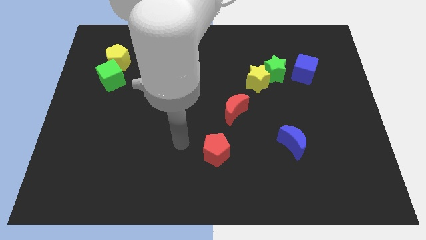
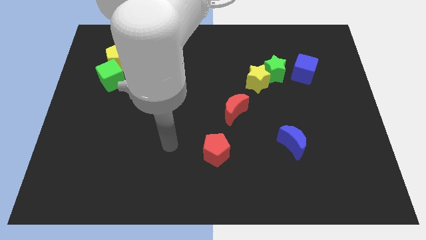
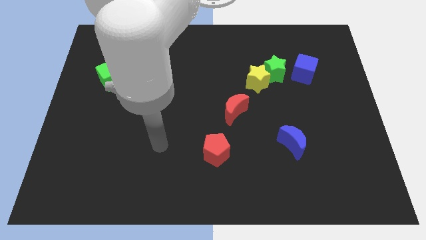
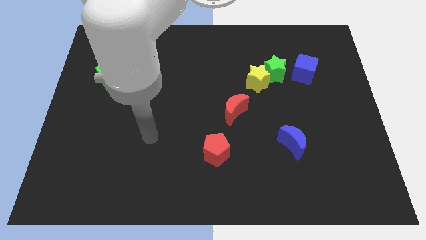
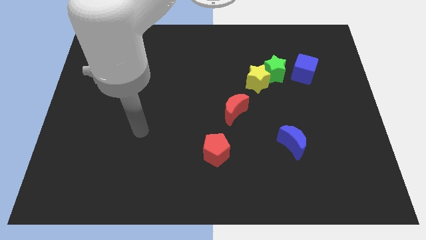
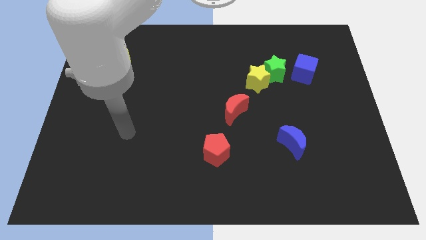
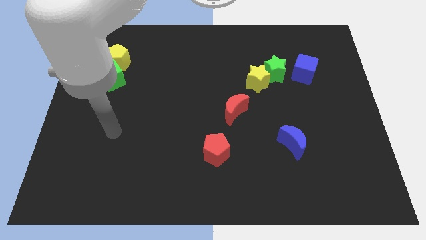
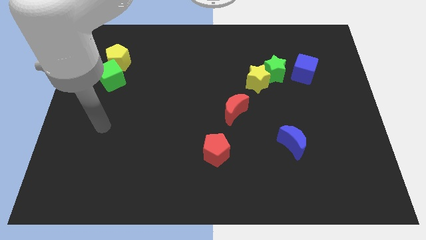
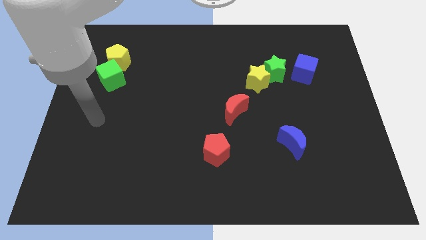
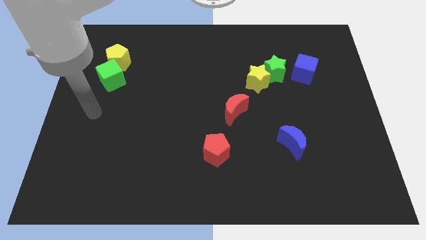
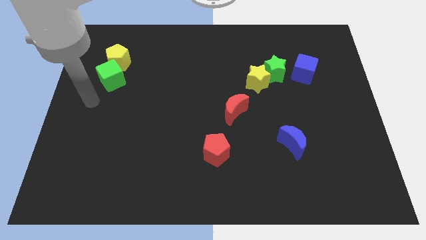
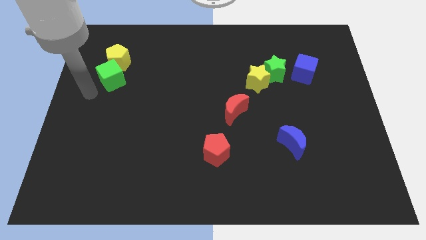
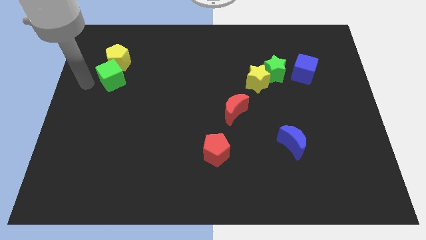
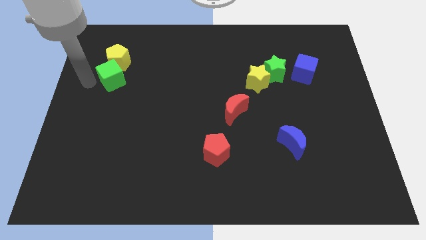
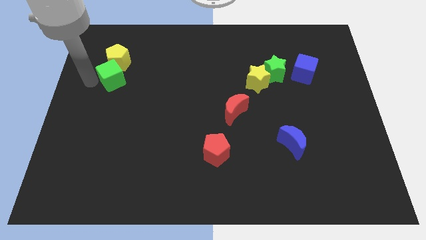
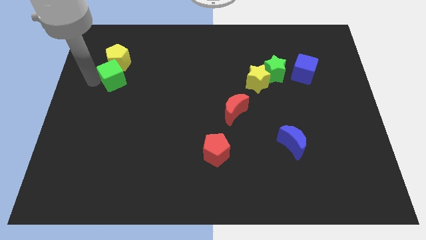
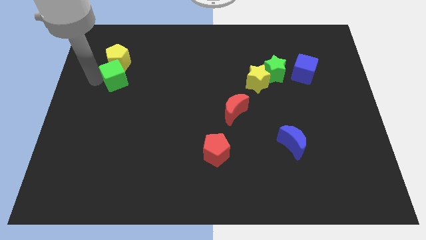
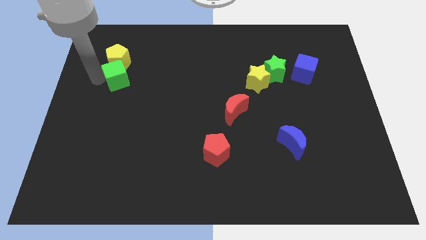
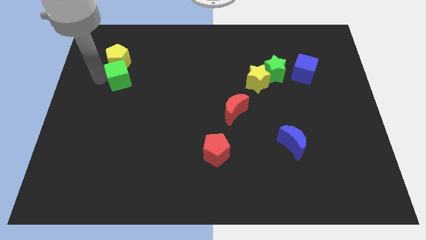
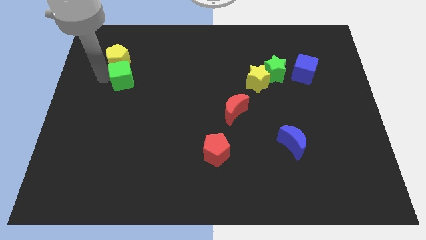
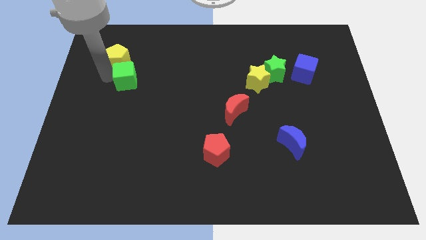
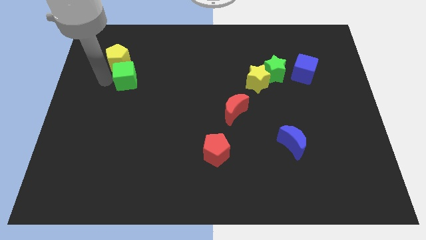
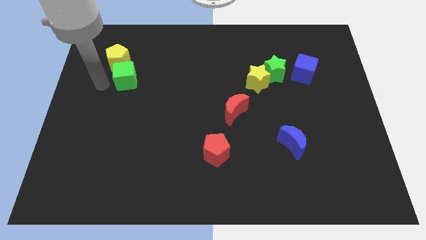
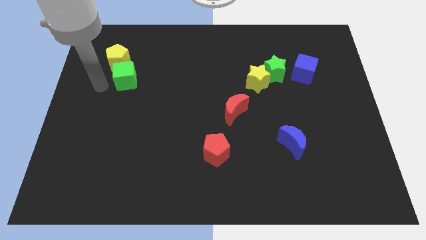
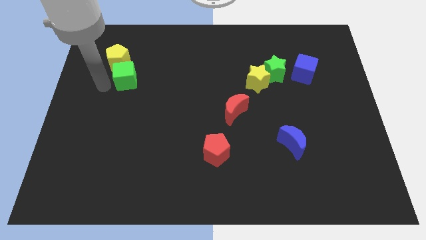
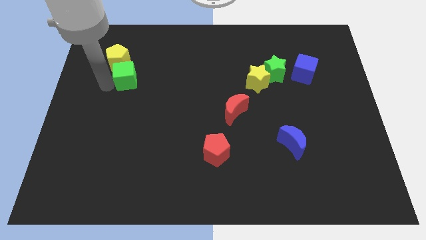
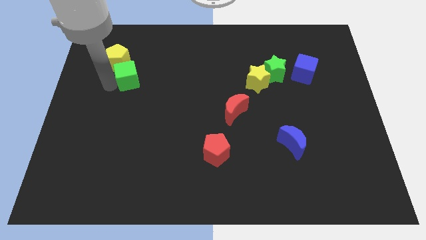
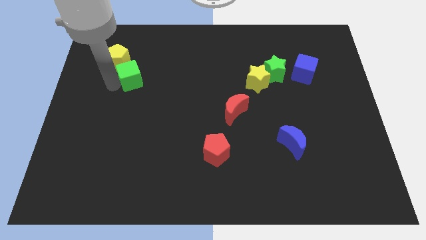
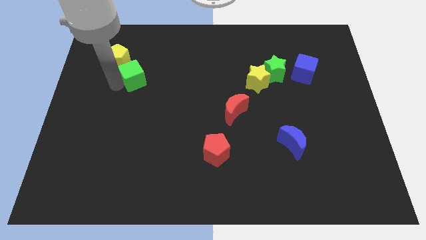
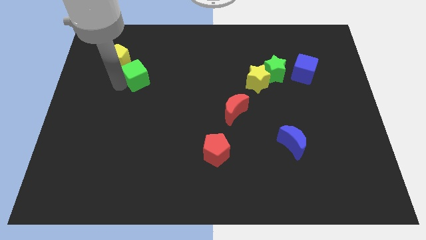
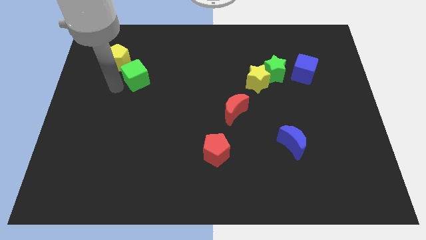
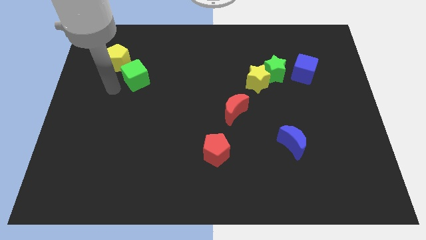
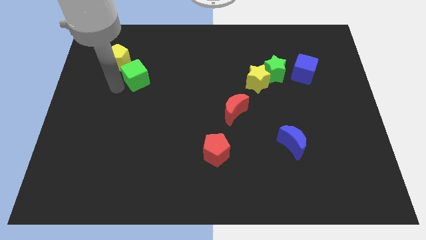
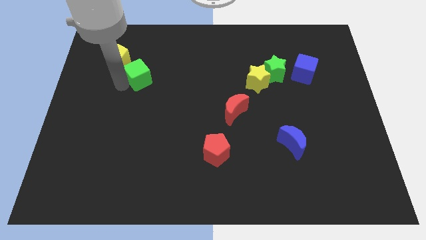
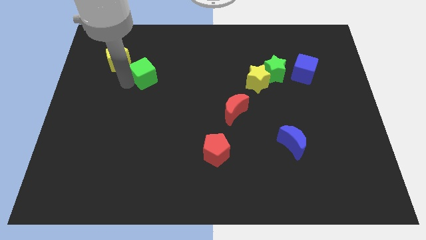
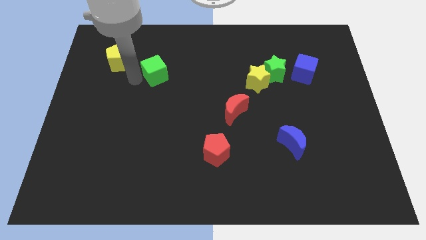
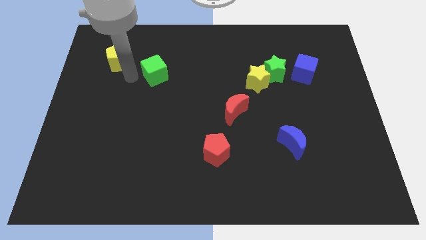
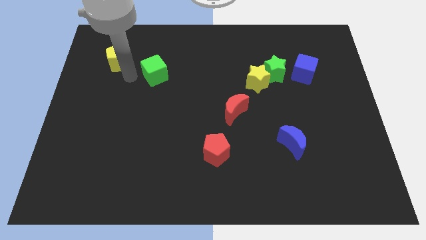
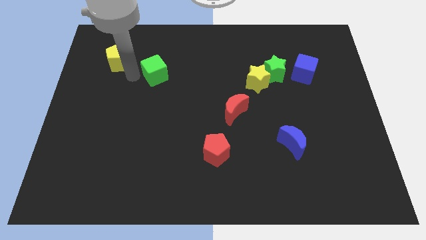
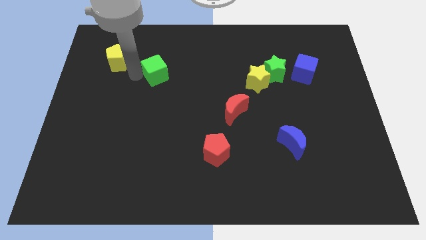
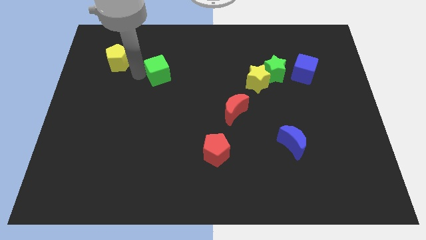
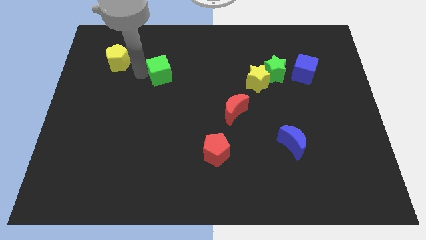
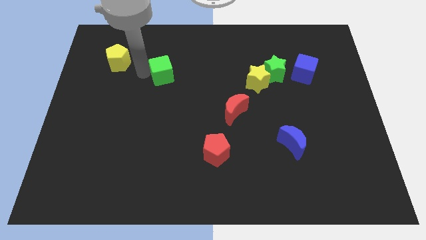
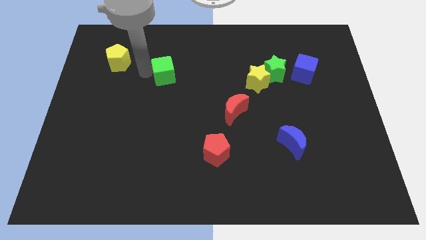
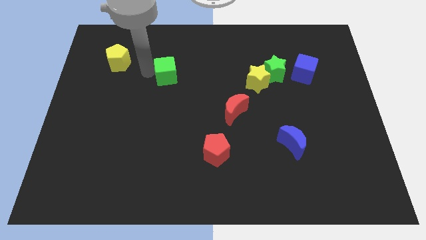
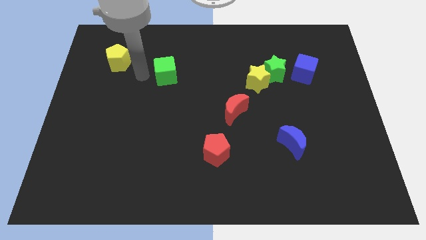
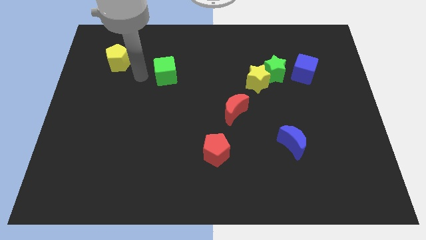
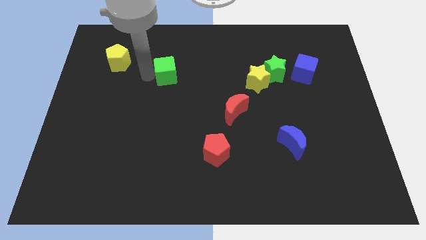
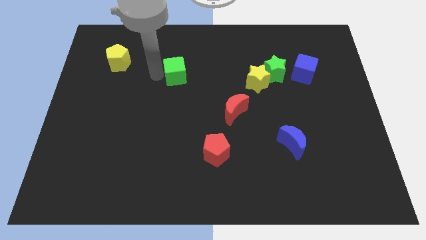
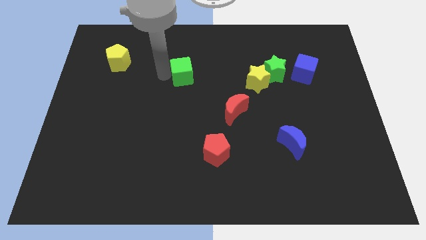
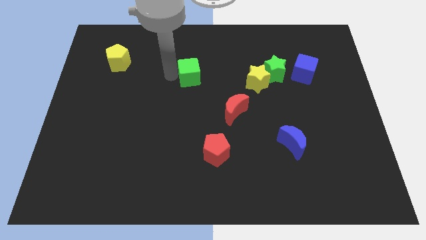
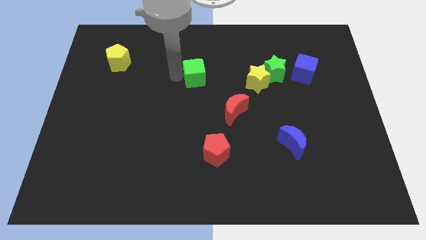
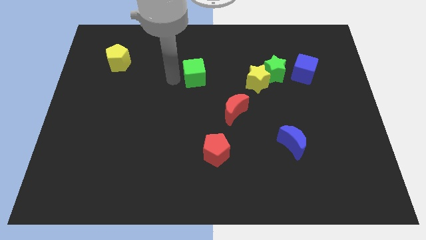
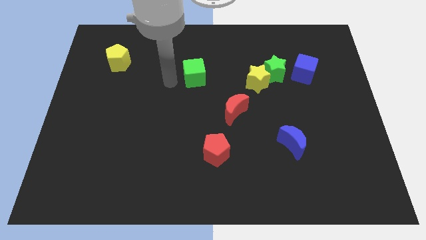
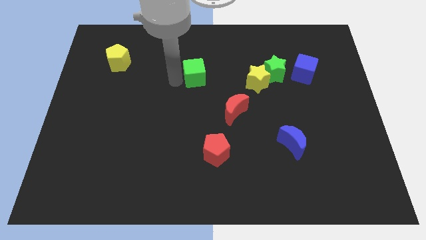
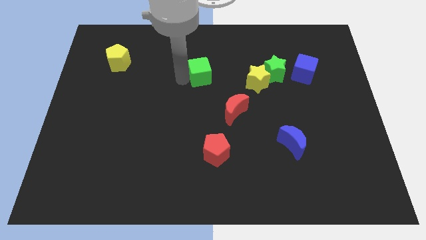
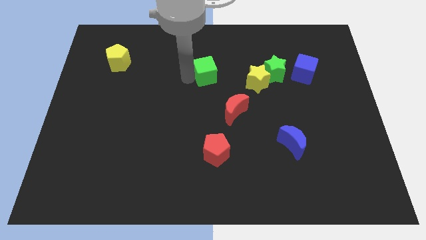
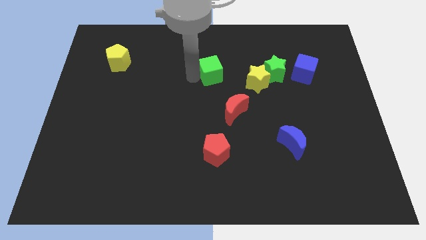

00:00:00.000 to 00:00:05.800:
move the green cube to the left side of the green star

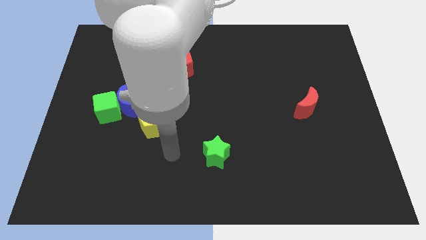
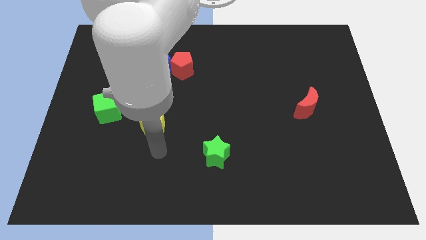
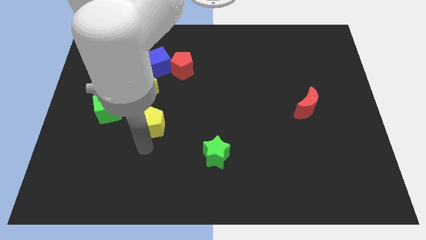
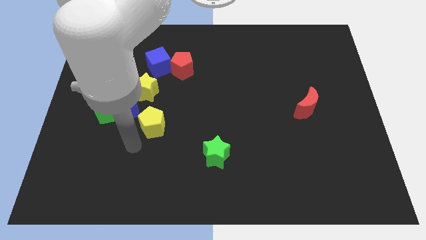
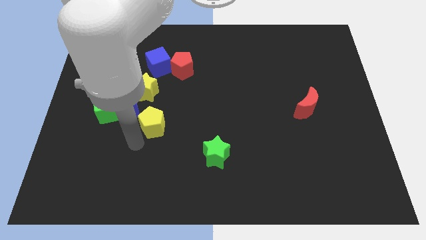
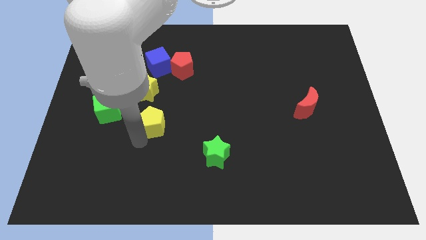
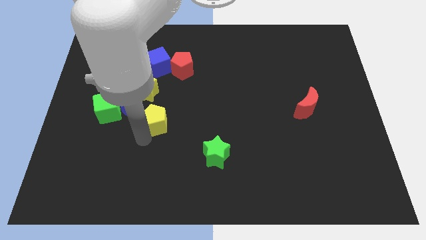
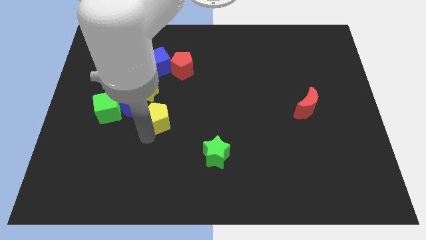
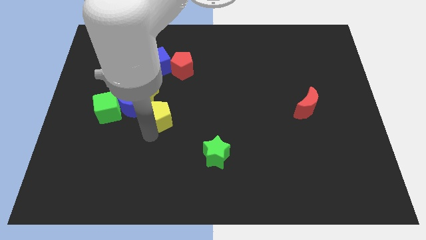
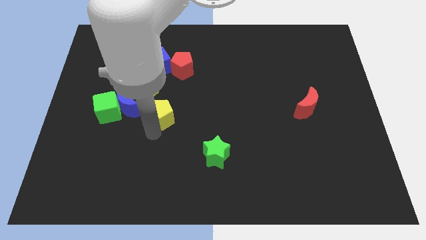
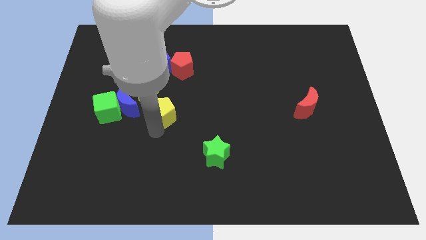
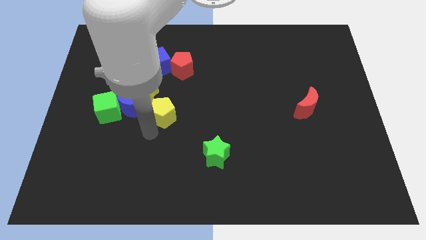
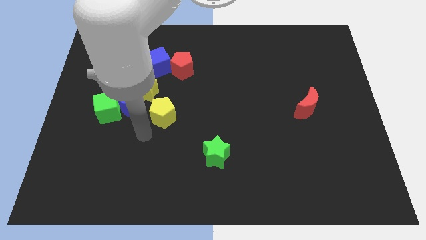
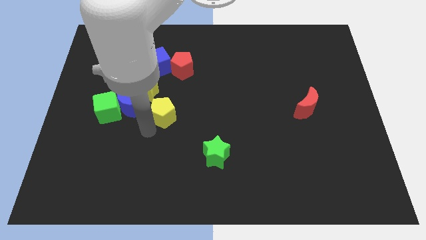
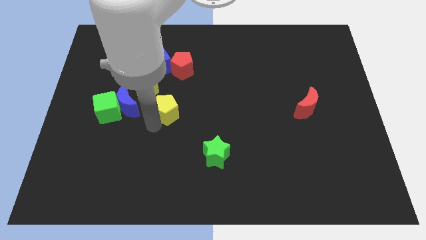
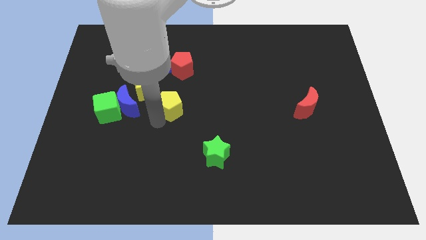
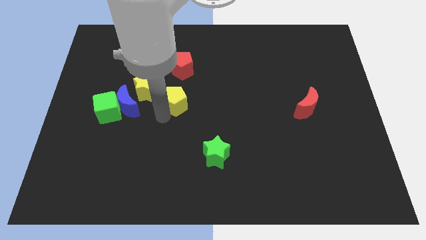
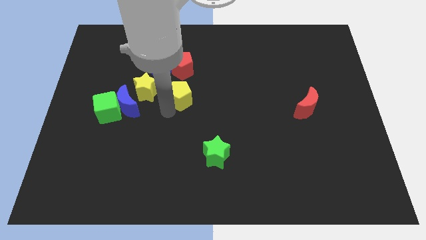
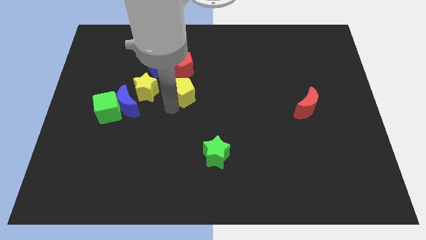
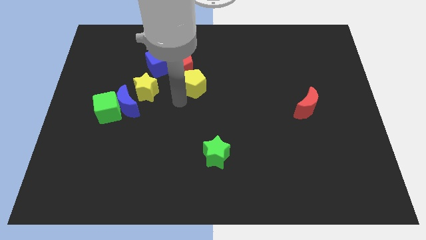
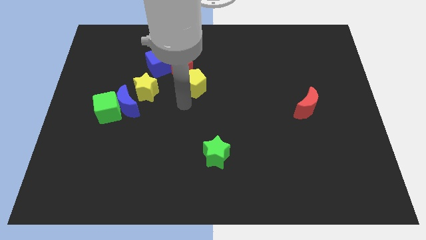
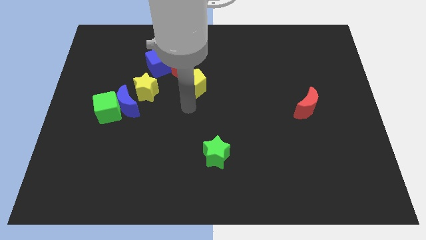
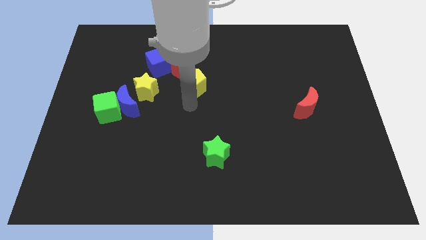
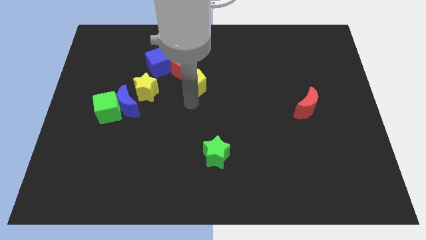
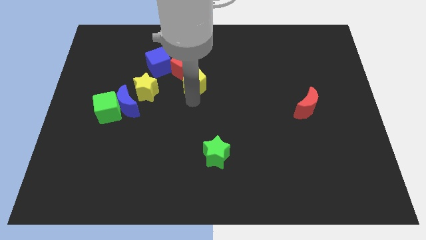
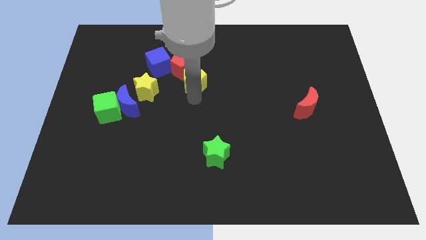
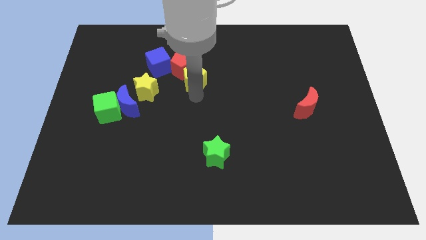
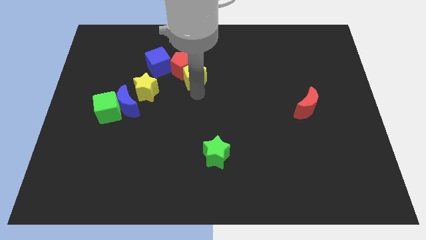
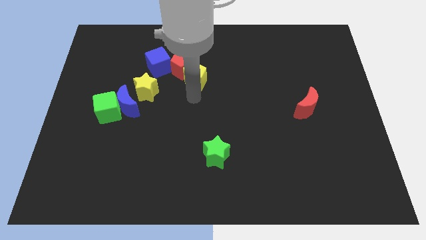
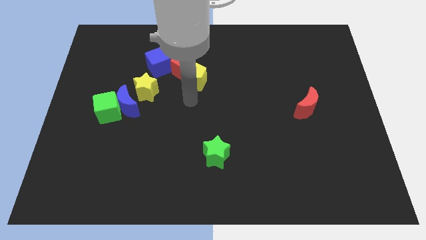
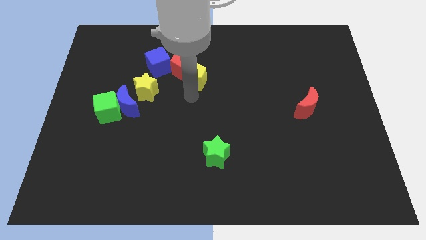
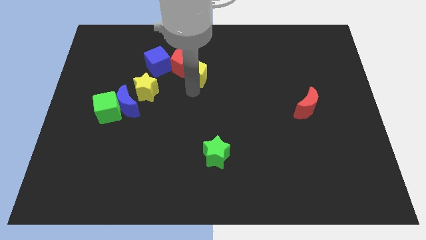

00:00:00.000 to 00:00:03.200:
slide the yellow pentagon right of the blue cube
